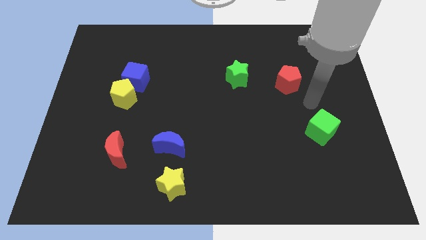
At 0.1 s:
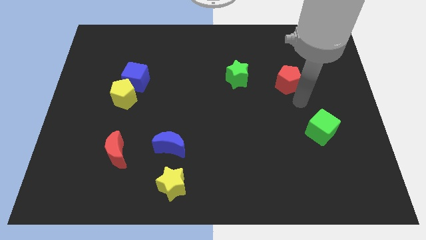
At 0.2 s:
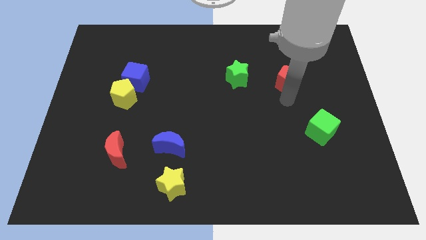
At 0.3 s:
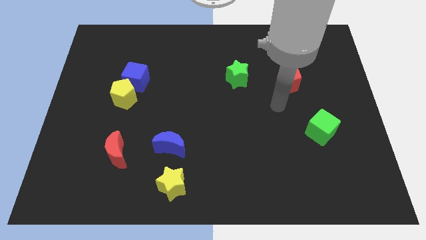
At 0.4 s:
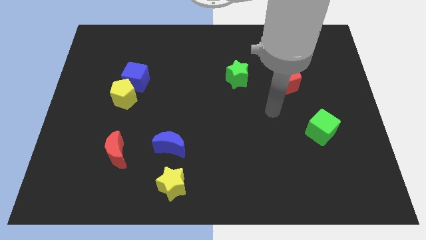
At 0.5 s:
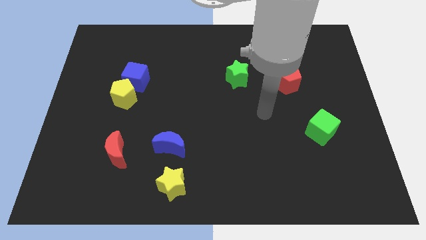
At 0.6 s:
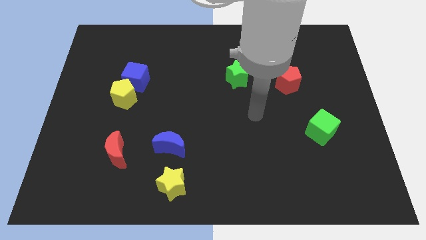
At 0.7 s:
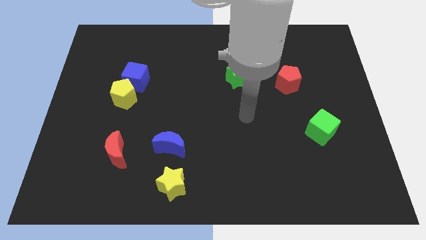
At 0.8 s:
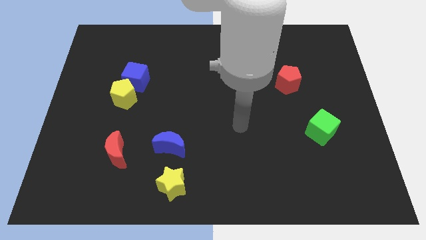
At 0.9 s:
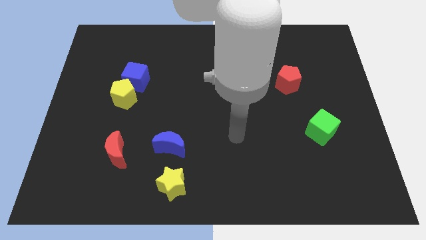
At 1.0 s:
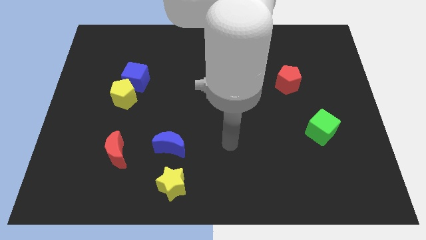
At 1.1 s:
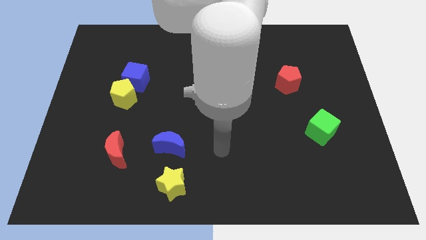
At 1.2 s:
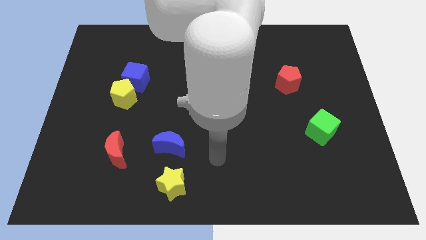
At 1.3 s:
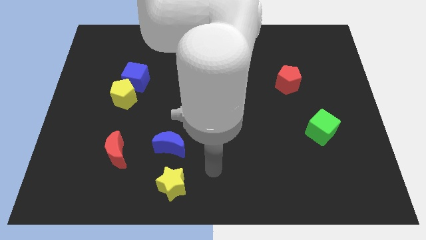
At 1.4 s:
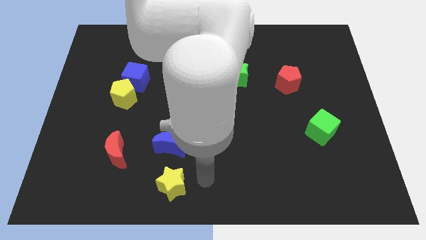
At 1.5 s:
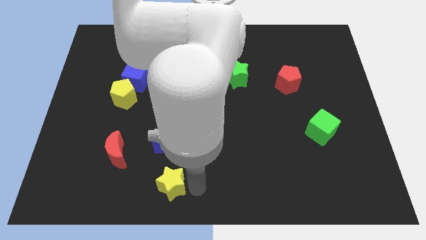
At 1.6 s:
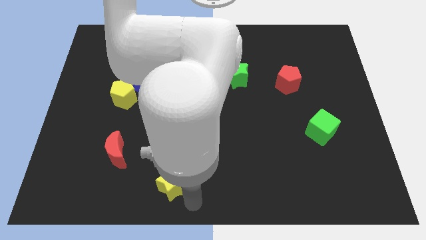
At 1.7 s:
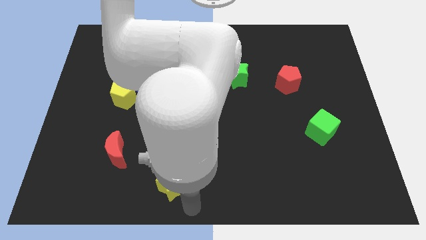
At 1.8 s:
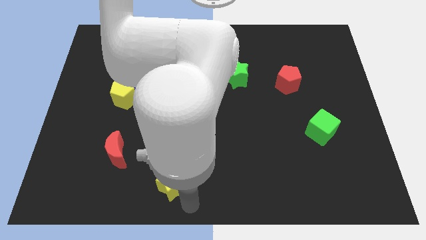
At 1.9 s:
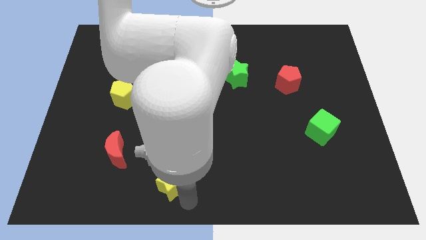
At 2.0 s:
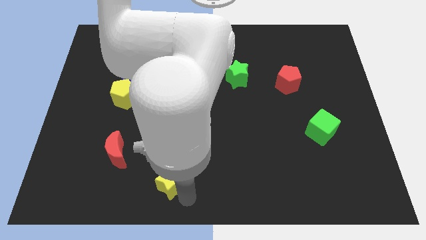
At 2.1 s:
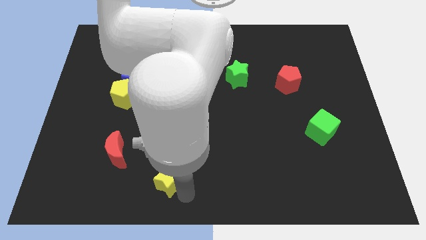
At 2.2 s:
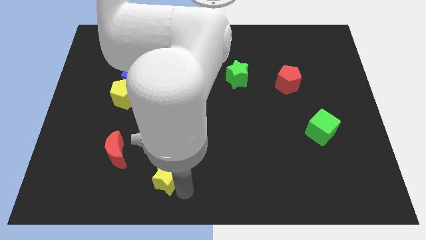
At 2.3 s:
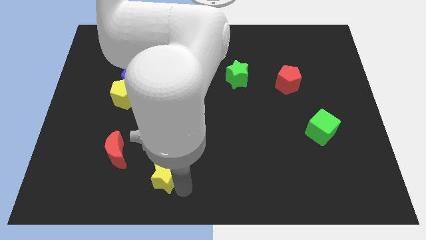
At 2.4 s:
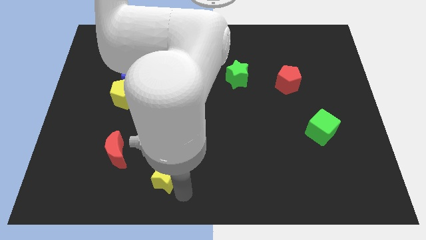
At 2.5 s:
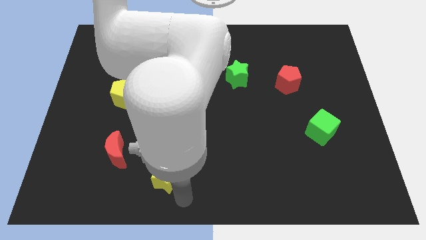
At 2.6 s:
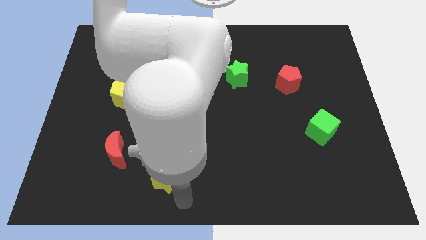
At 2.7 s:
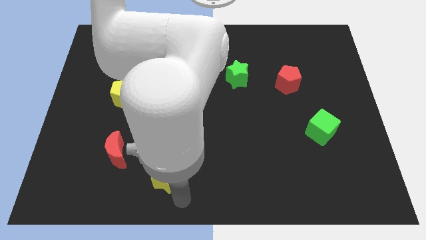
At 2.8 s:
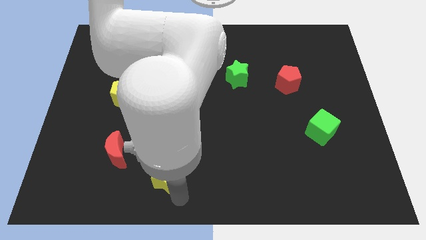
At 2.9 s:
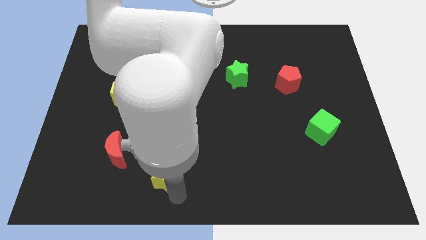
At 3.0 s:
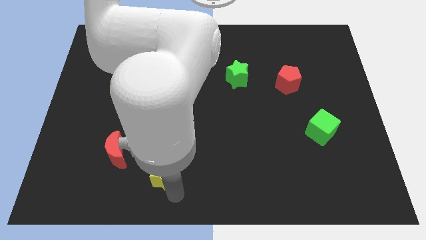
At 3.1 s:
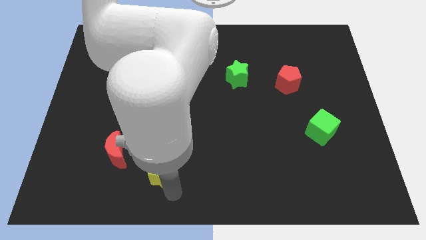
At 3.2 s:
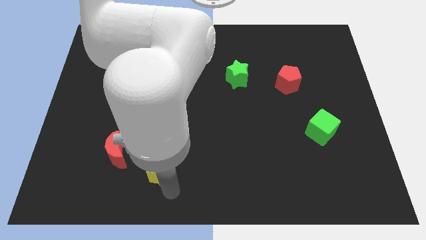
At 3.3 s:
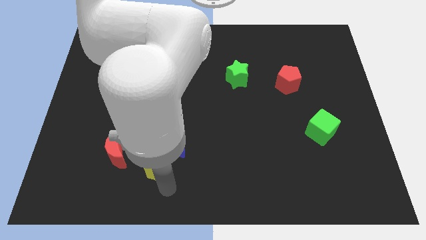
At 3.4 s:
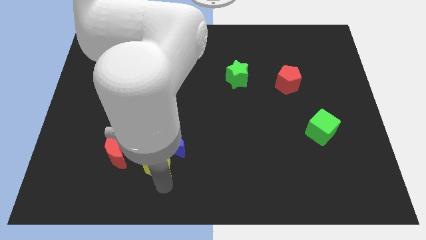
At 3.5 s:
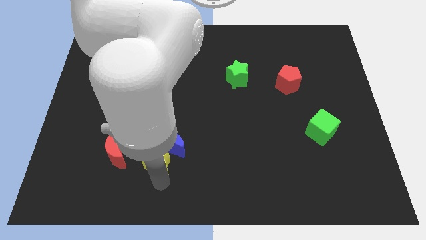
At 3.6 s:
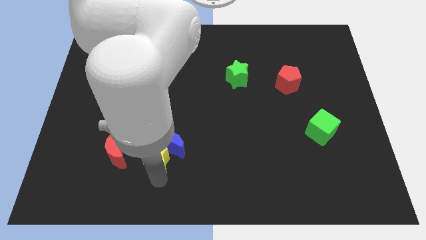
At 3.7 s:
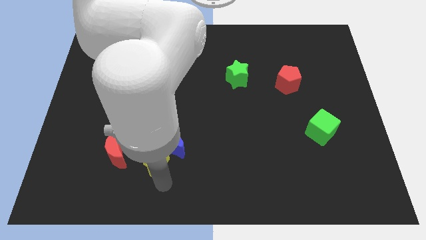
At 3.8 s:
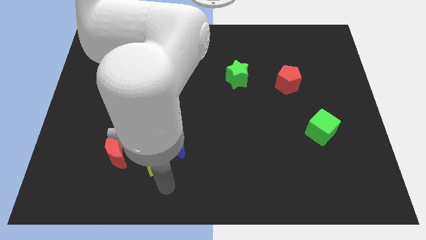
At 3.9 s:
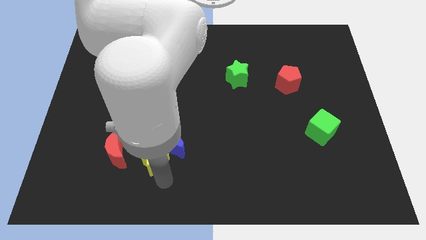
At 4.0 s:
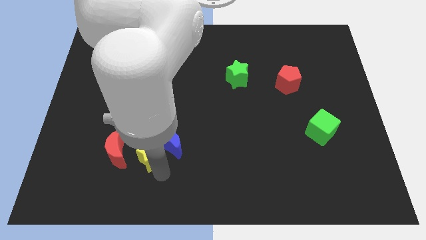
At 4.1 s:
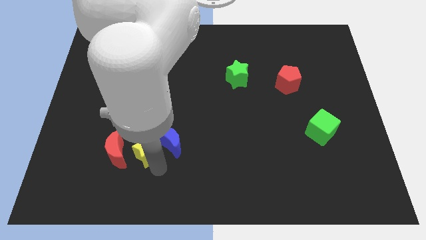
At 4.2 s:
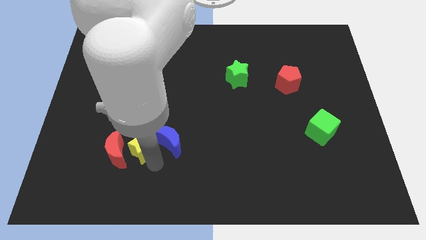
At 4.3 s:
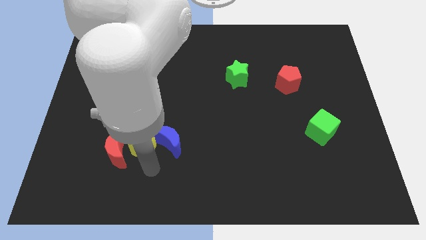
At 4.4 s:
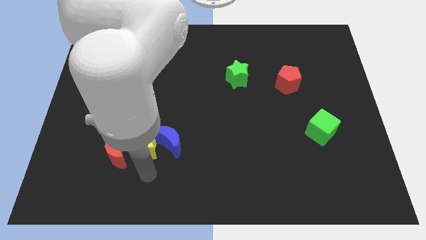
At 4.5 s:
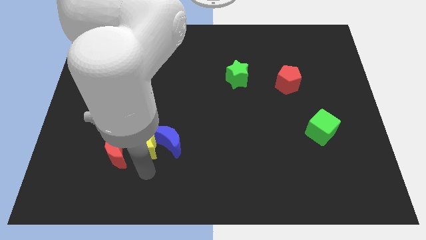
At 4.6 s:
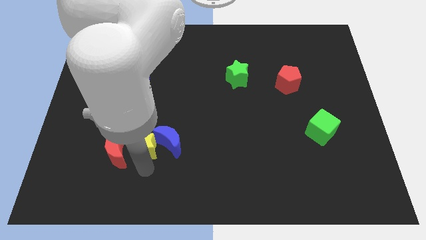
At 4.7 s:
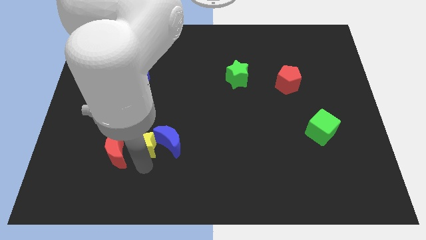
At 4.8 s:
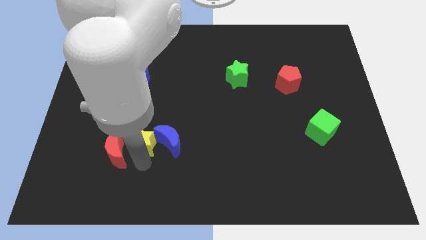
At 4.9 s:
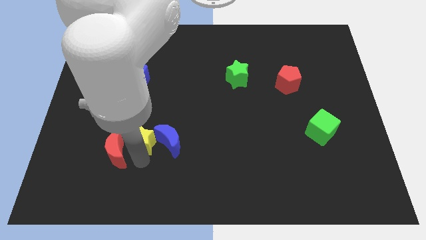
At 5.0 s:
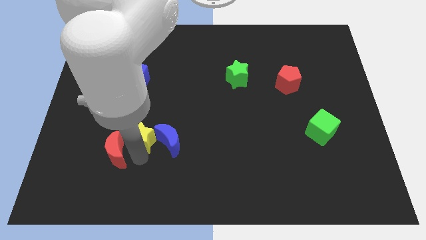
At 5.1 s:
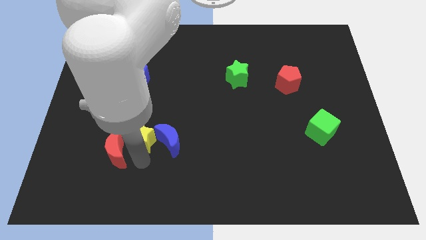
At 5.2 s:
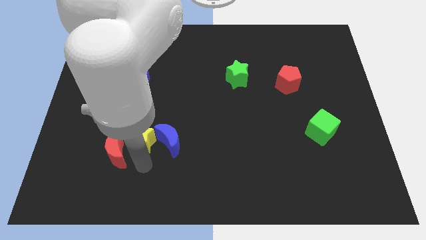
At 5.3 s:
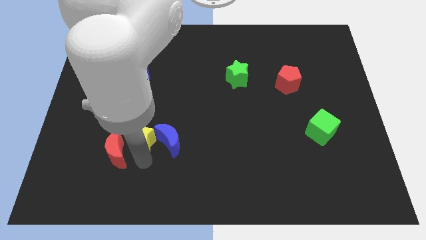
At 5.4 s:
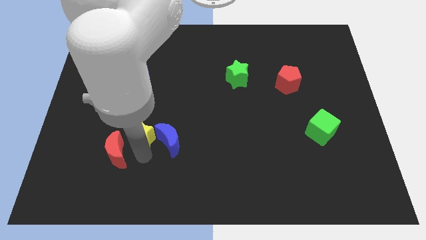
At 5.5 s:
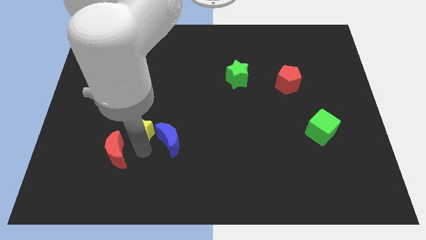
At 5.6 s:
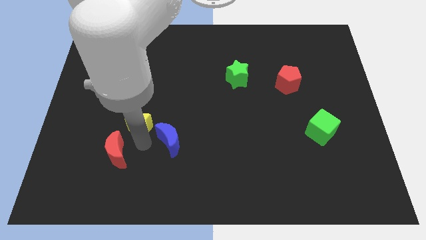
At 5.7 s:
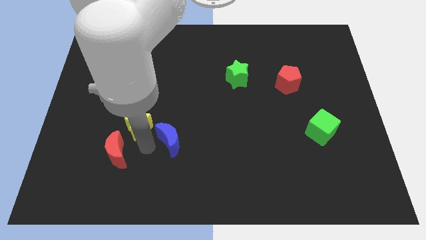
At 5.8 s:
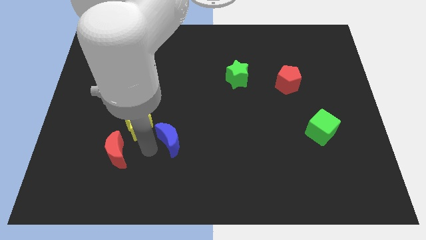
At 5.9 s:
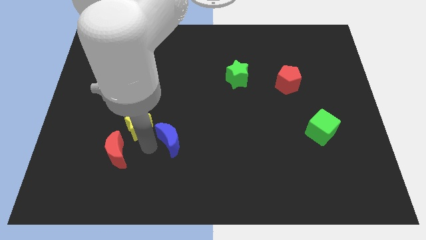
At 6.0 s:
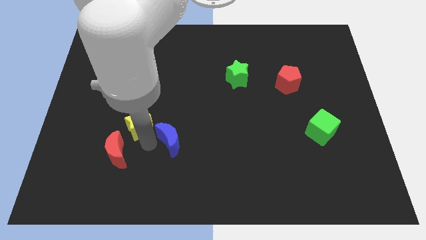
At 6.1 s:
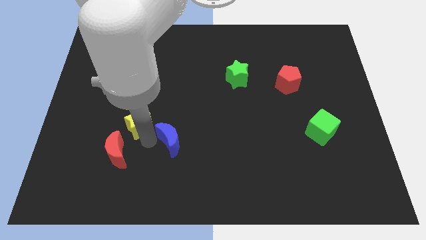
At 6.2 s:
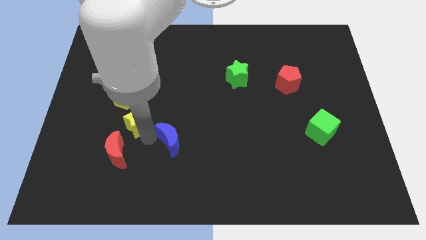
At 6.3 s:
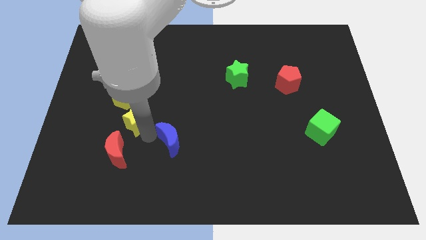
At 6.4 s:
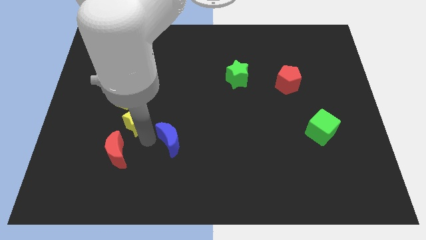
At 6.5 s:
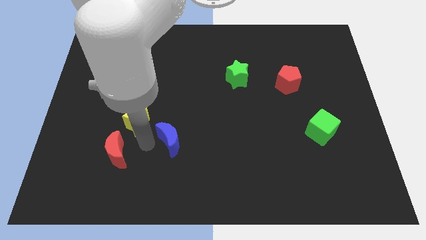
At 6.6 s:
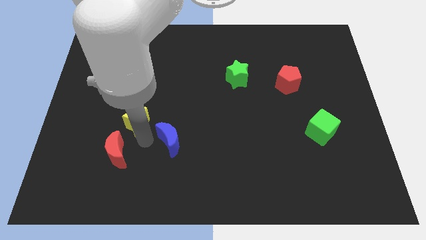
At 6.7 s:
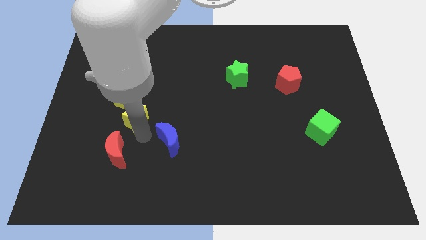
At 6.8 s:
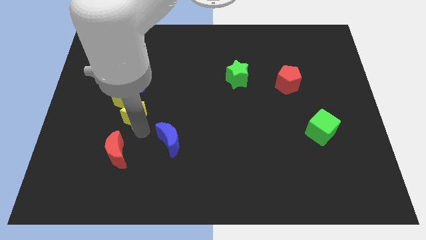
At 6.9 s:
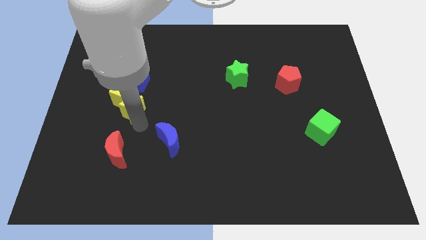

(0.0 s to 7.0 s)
move the yellow star towards the yellow pentagon

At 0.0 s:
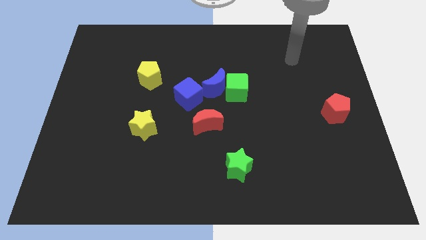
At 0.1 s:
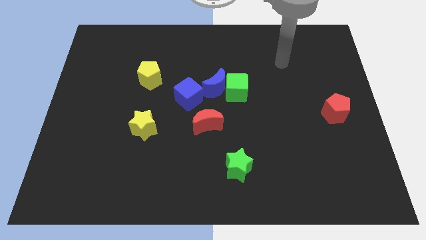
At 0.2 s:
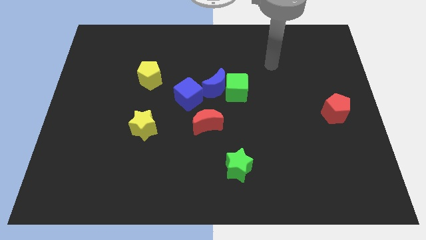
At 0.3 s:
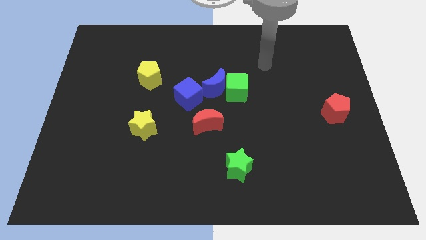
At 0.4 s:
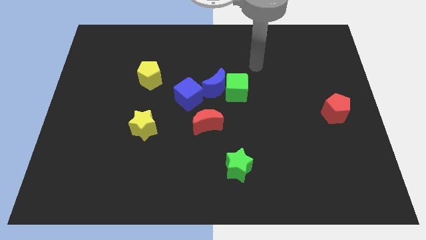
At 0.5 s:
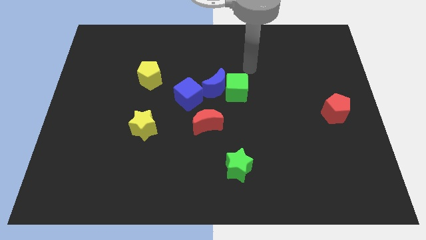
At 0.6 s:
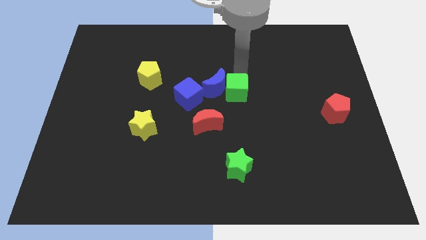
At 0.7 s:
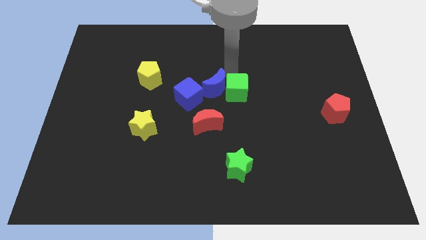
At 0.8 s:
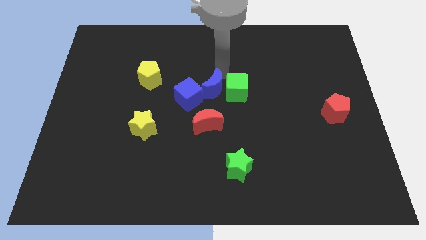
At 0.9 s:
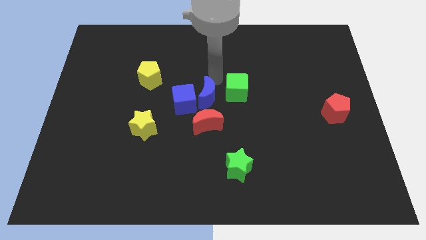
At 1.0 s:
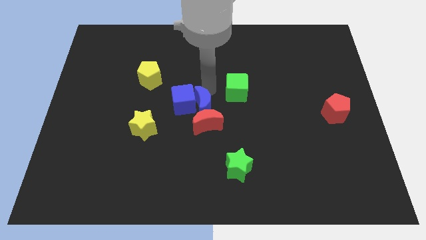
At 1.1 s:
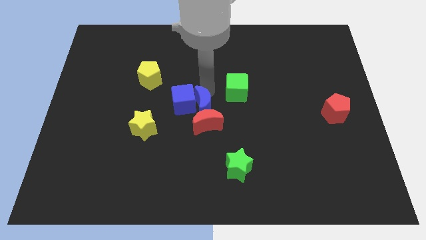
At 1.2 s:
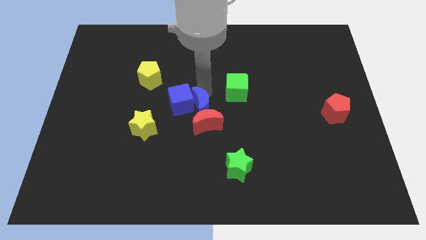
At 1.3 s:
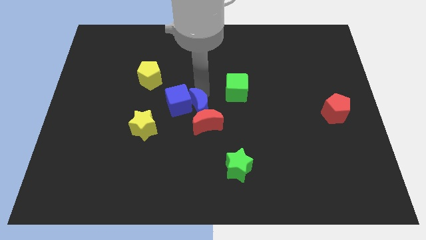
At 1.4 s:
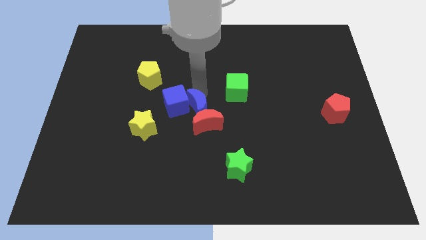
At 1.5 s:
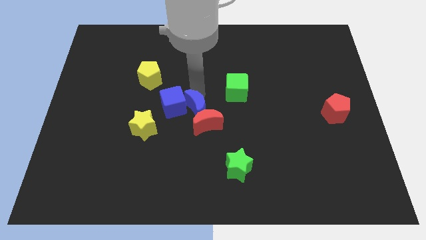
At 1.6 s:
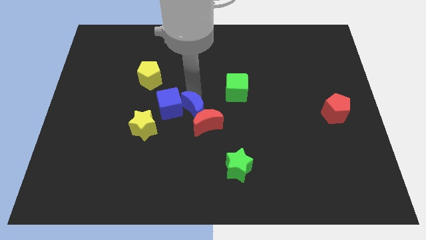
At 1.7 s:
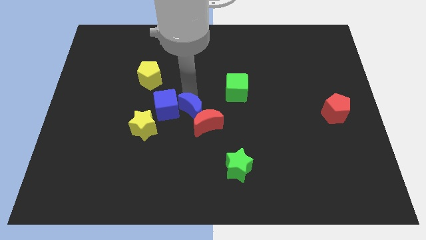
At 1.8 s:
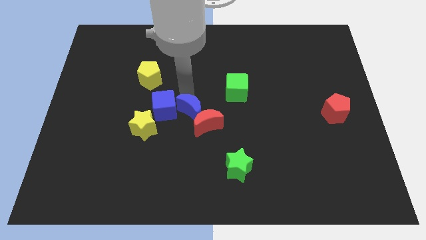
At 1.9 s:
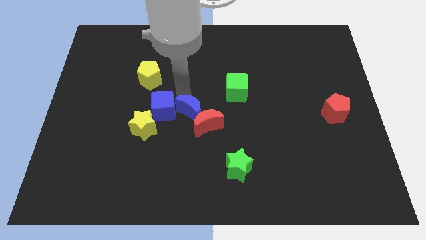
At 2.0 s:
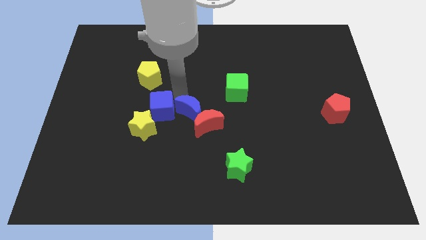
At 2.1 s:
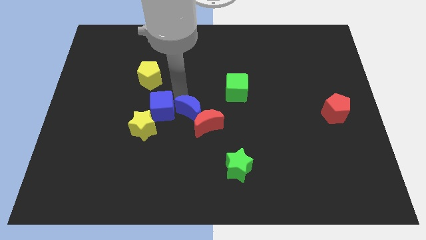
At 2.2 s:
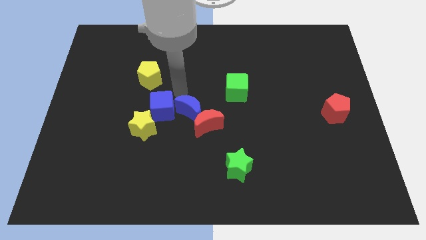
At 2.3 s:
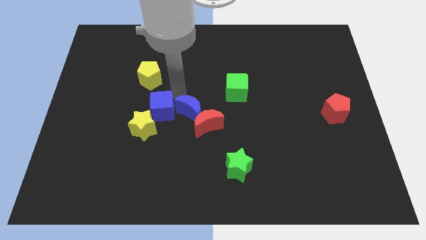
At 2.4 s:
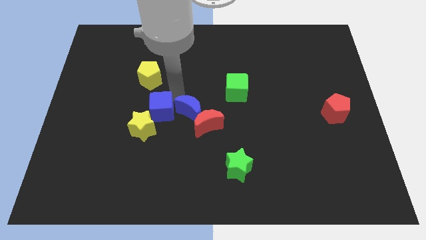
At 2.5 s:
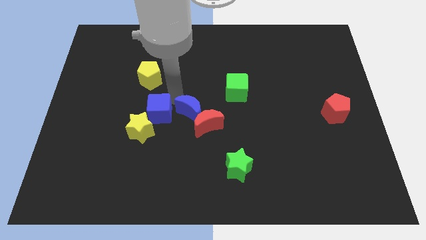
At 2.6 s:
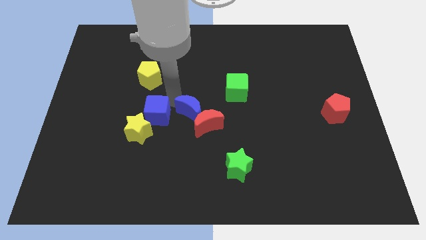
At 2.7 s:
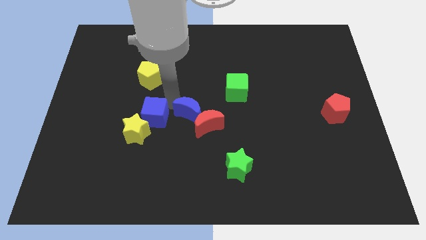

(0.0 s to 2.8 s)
slide the blue cube towards the yellow star
